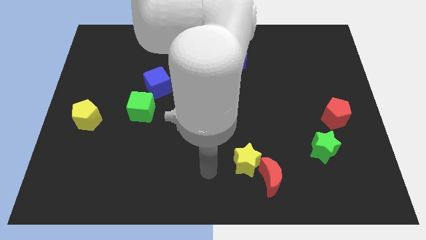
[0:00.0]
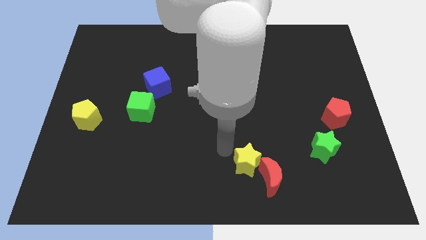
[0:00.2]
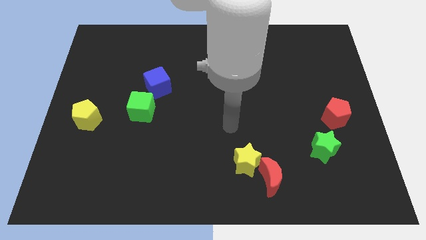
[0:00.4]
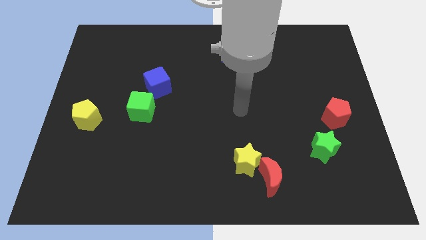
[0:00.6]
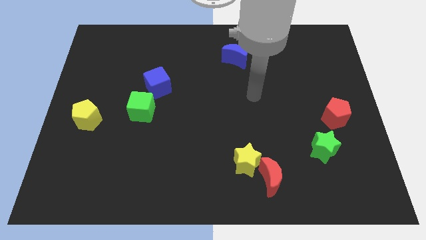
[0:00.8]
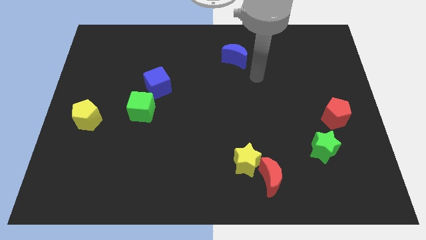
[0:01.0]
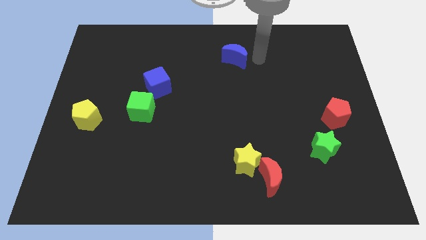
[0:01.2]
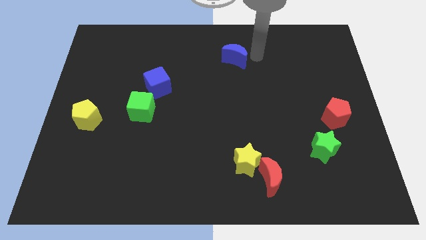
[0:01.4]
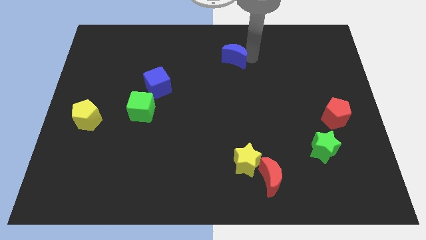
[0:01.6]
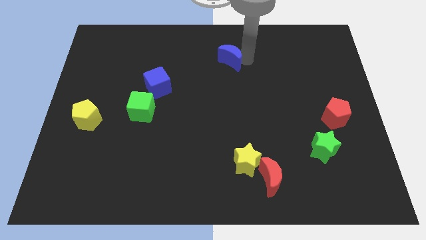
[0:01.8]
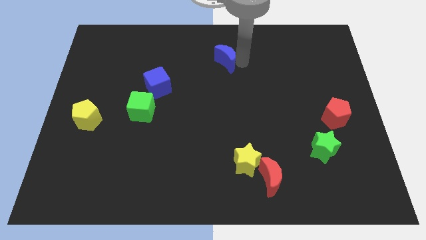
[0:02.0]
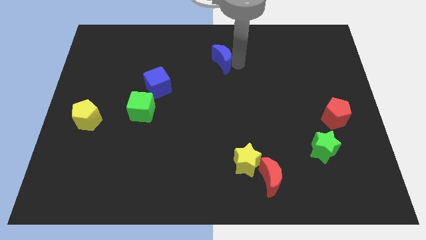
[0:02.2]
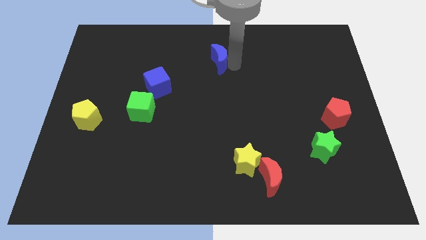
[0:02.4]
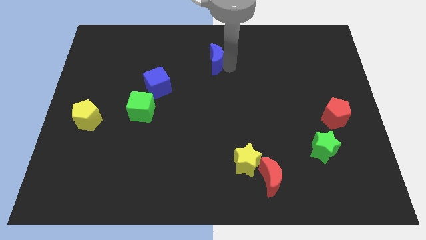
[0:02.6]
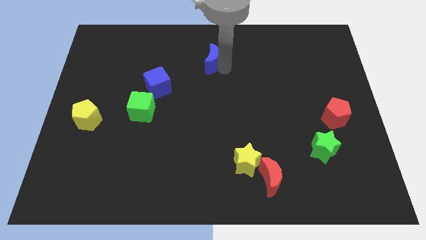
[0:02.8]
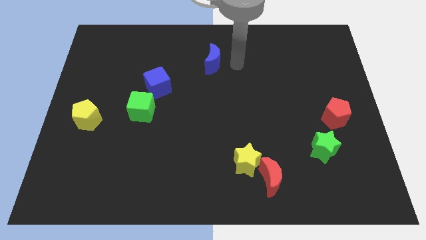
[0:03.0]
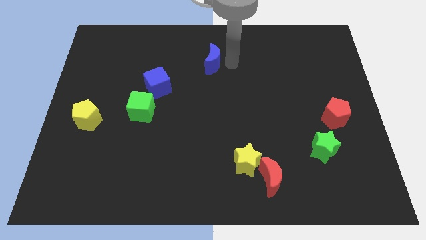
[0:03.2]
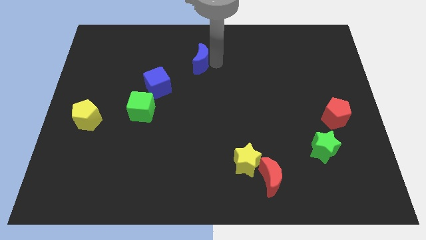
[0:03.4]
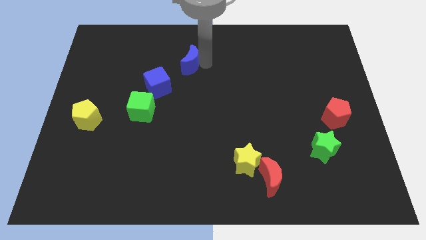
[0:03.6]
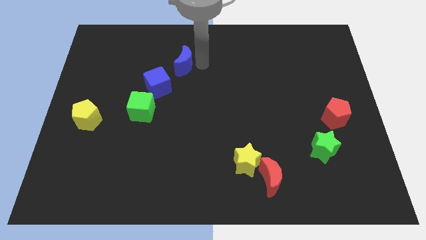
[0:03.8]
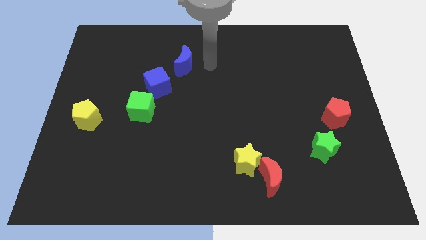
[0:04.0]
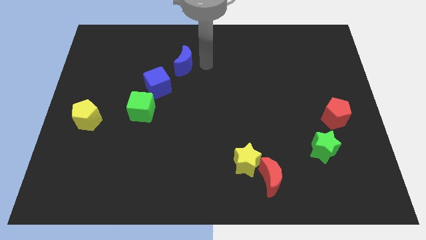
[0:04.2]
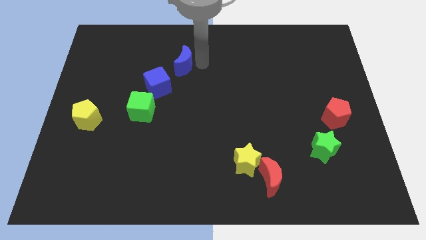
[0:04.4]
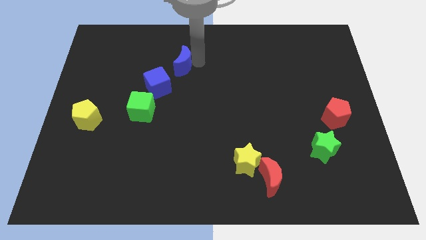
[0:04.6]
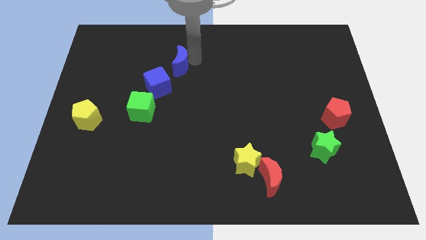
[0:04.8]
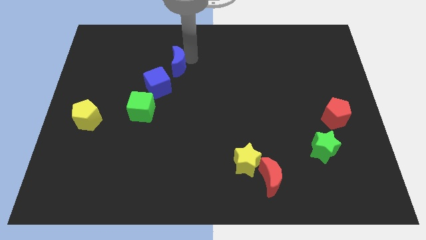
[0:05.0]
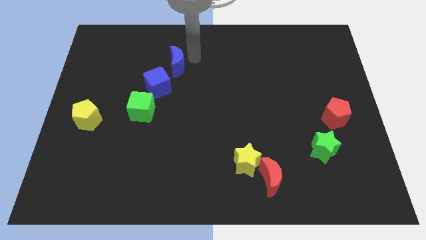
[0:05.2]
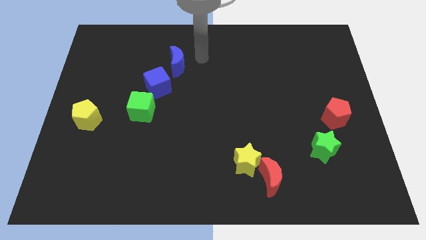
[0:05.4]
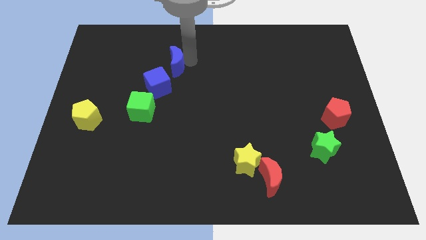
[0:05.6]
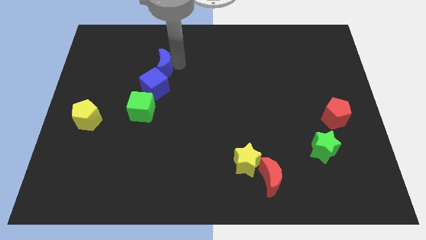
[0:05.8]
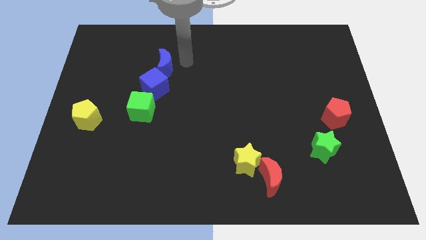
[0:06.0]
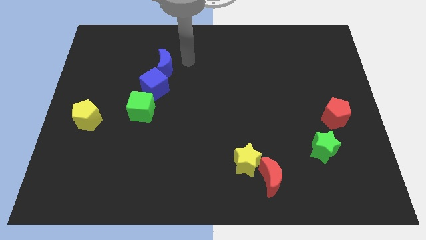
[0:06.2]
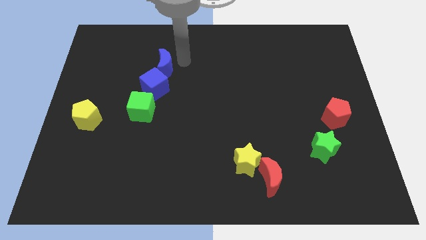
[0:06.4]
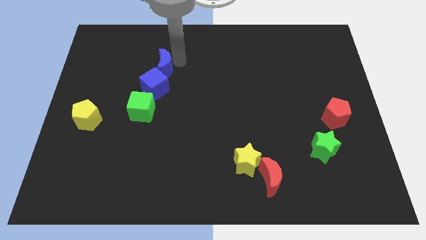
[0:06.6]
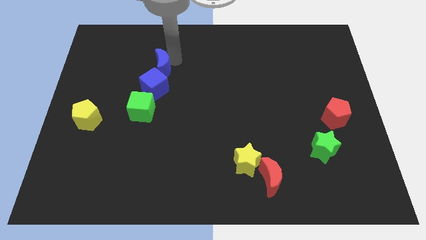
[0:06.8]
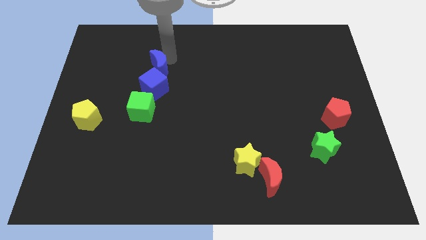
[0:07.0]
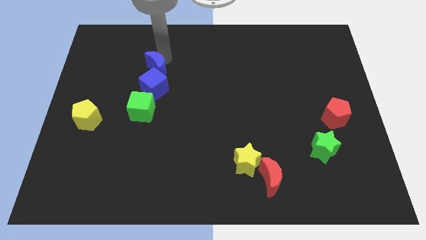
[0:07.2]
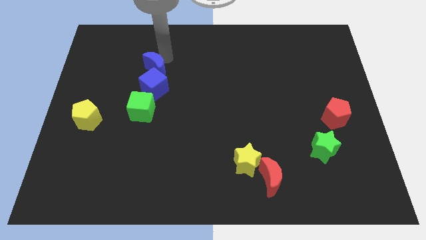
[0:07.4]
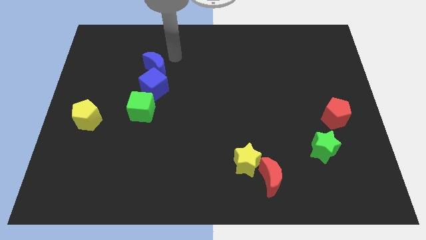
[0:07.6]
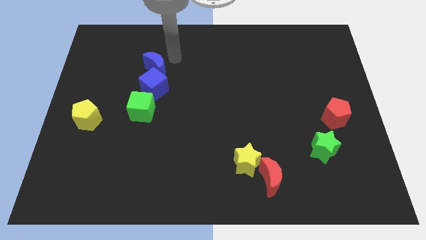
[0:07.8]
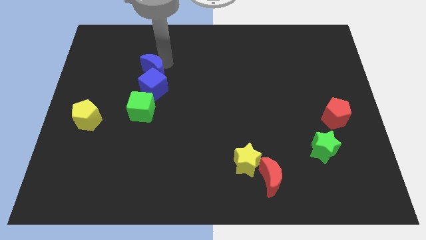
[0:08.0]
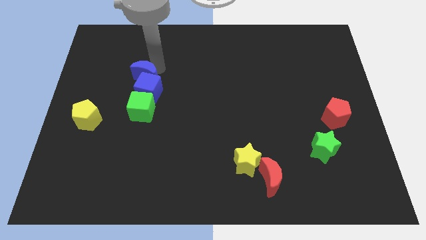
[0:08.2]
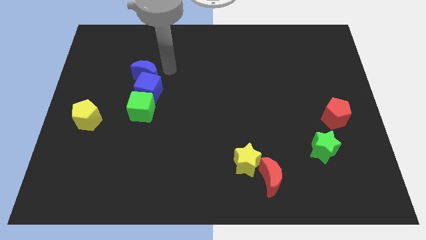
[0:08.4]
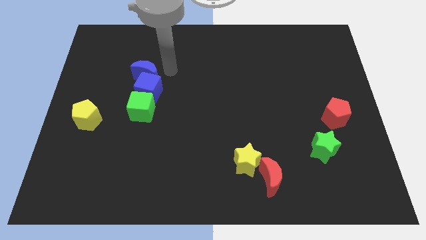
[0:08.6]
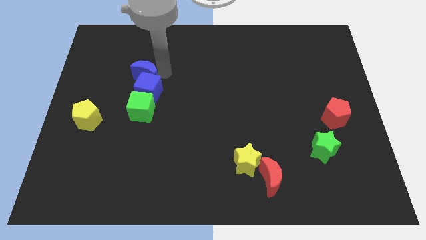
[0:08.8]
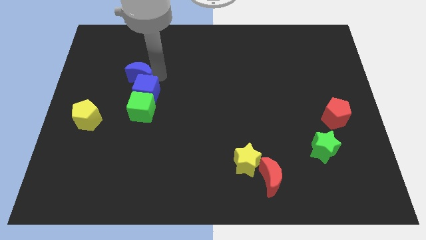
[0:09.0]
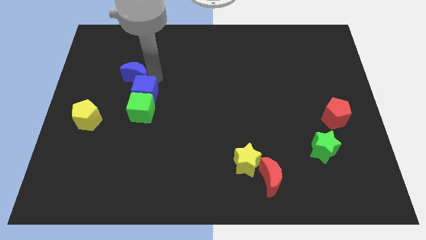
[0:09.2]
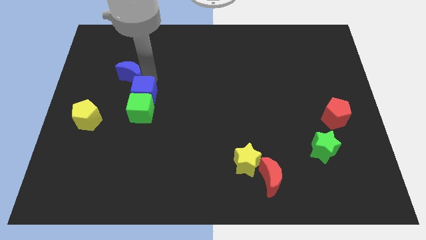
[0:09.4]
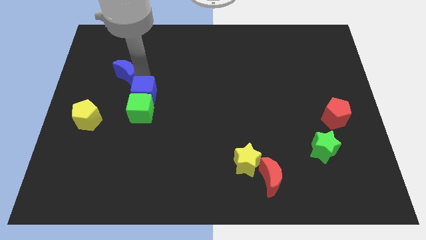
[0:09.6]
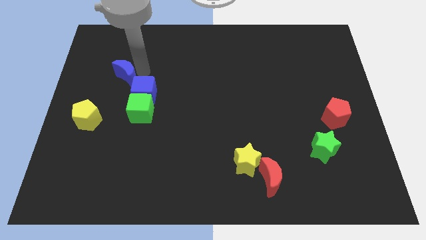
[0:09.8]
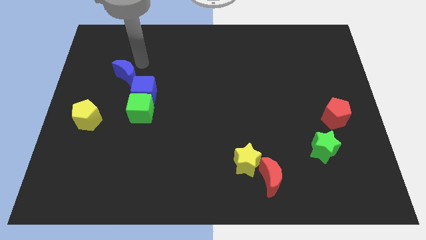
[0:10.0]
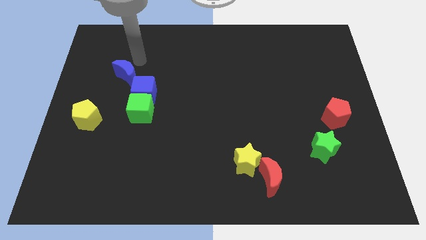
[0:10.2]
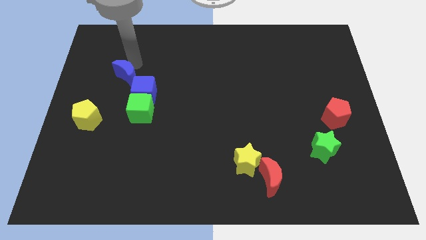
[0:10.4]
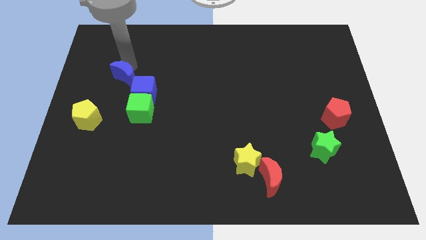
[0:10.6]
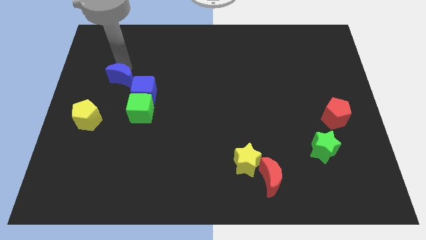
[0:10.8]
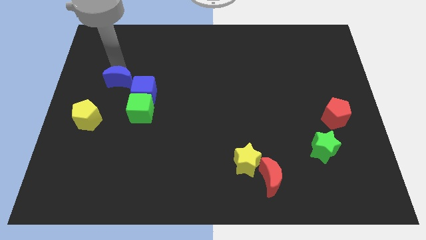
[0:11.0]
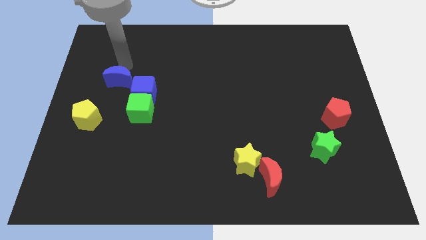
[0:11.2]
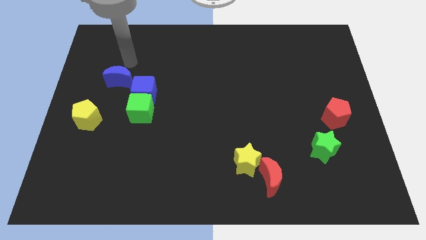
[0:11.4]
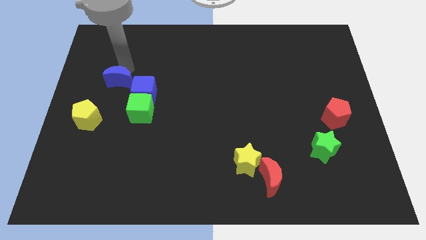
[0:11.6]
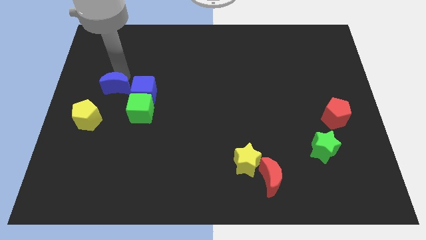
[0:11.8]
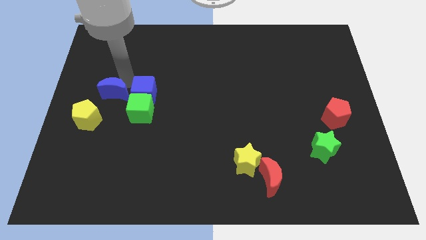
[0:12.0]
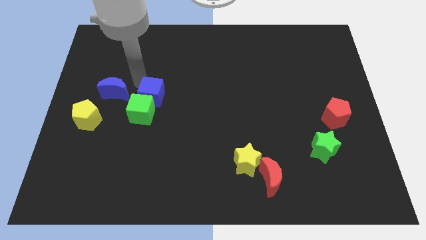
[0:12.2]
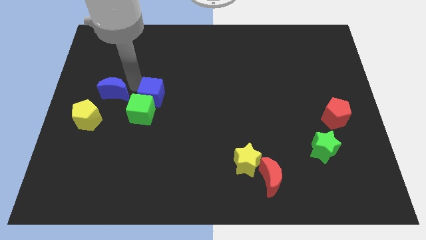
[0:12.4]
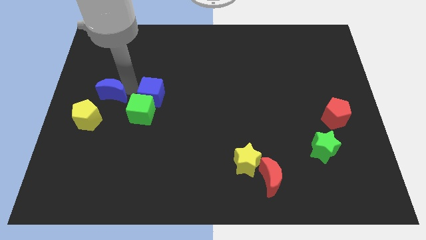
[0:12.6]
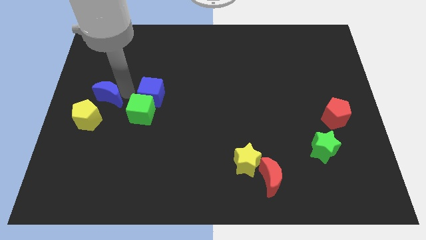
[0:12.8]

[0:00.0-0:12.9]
slide the blue moon to the left side
